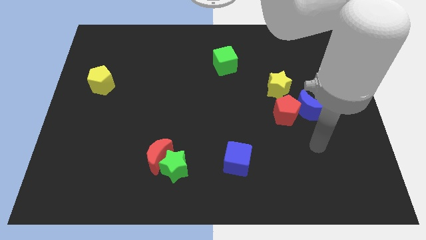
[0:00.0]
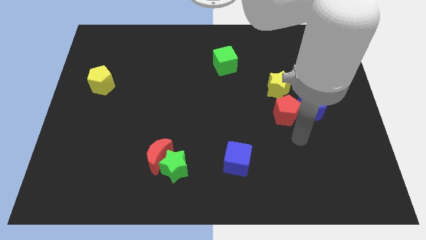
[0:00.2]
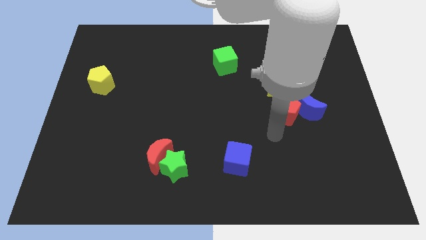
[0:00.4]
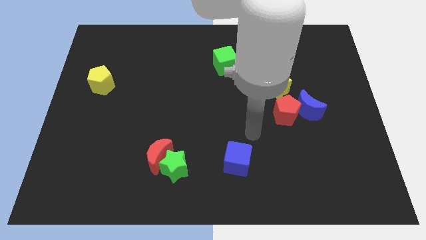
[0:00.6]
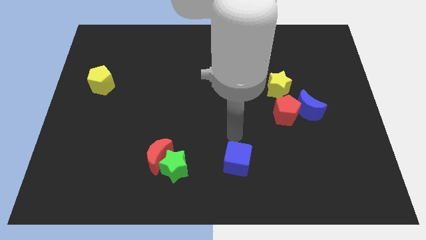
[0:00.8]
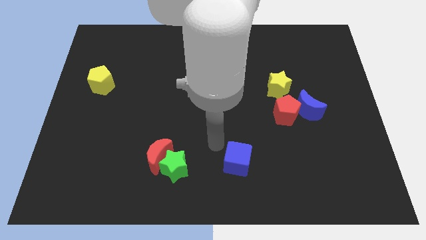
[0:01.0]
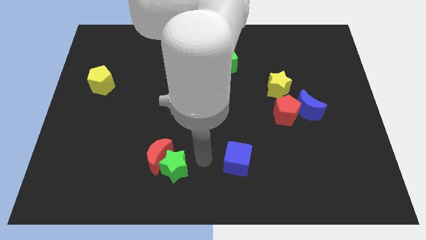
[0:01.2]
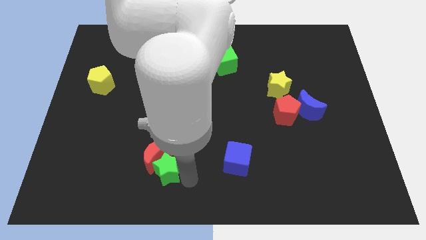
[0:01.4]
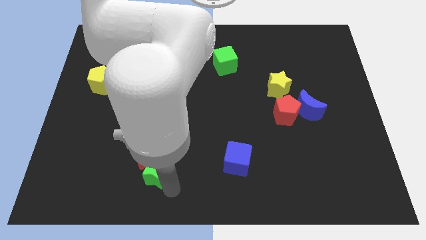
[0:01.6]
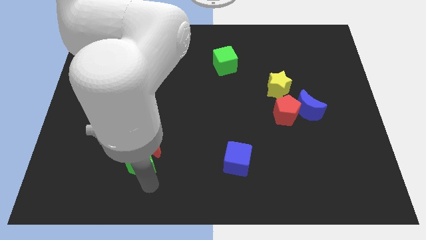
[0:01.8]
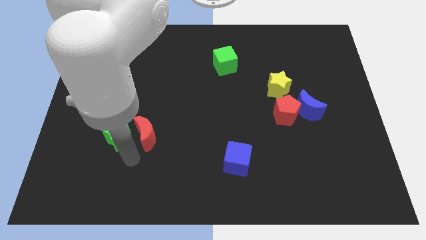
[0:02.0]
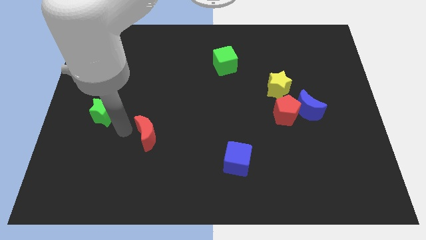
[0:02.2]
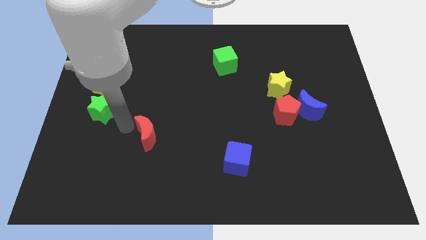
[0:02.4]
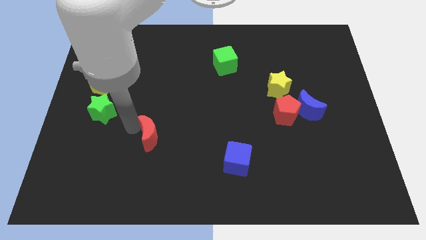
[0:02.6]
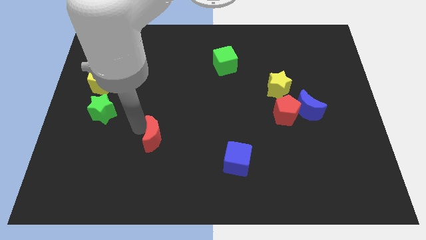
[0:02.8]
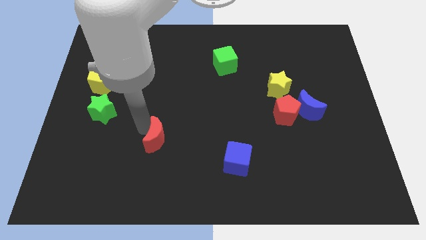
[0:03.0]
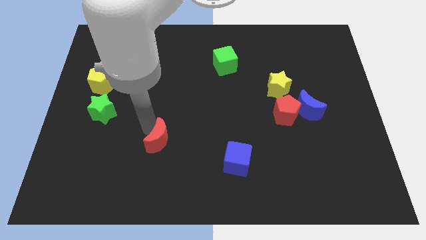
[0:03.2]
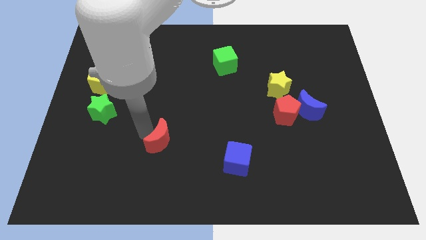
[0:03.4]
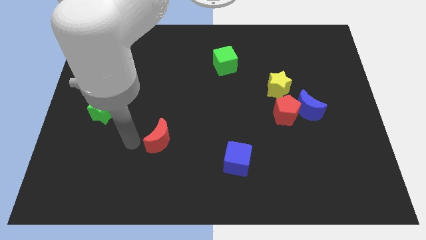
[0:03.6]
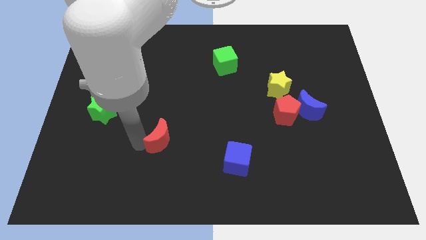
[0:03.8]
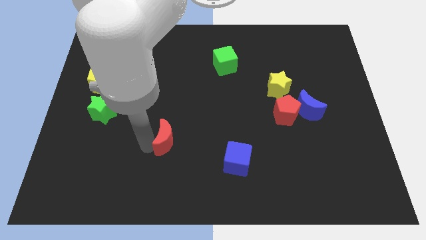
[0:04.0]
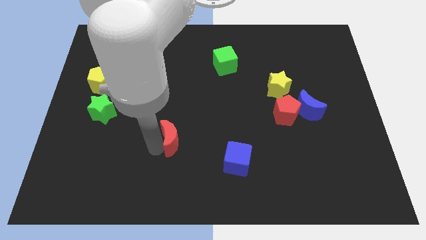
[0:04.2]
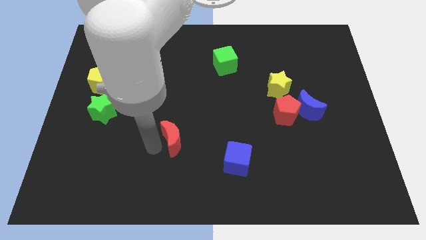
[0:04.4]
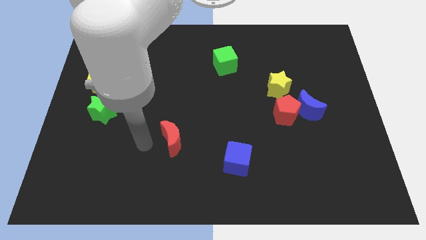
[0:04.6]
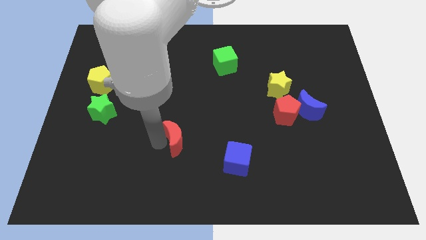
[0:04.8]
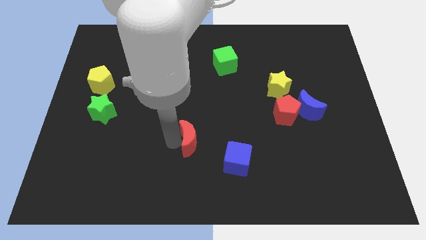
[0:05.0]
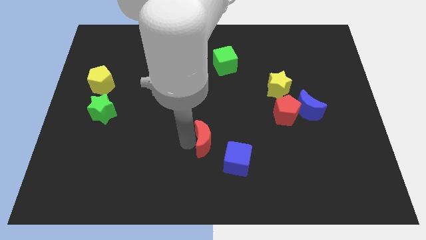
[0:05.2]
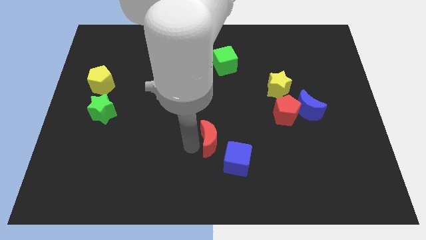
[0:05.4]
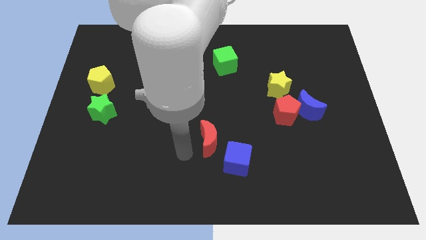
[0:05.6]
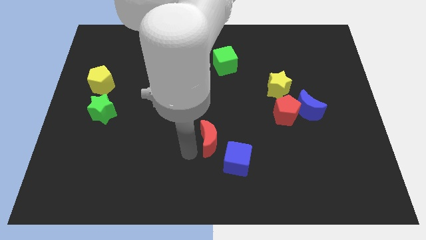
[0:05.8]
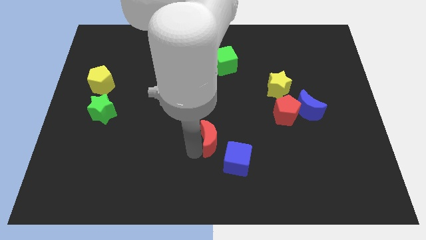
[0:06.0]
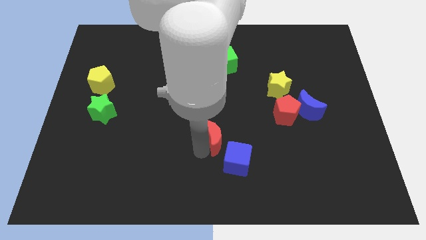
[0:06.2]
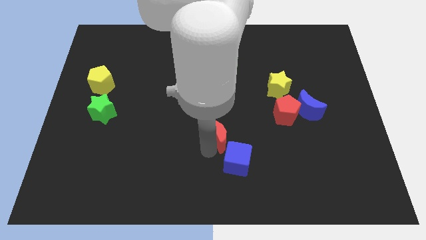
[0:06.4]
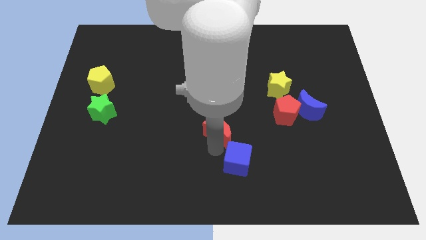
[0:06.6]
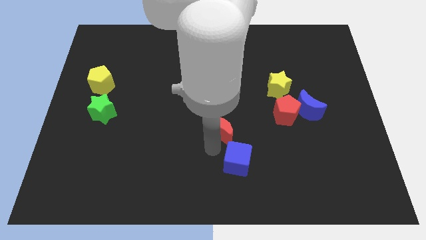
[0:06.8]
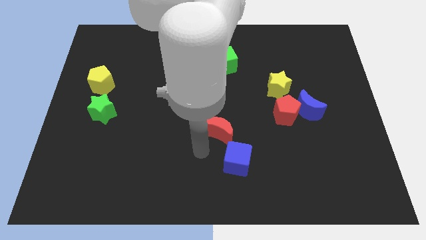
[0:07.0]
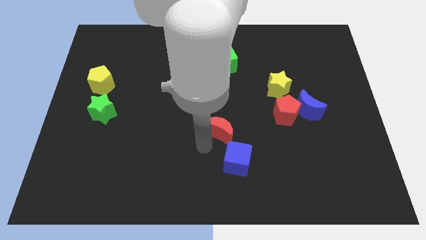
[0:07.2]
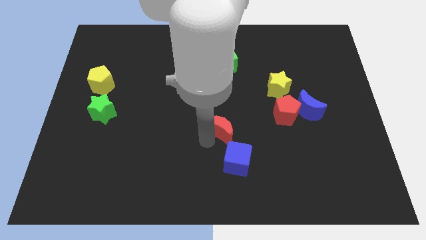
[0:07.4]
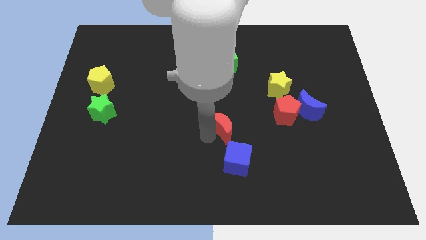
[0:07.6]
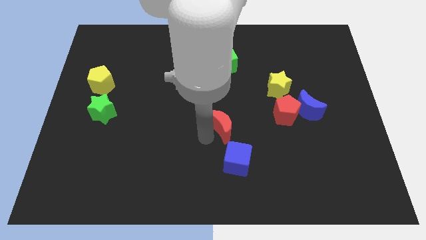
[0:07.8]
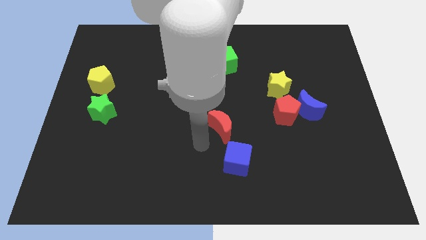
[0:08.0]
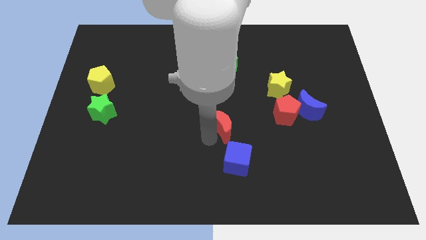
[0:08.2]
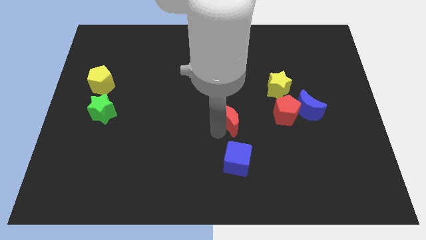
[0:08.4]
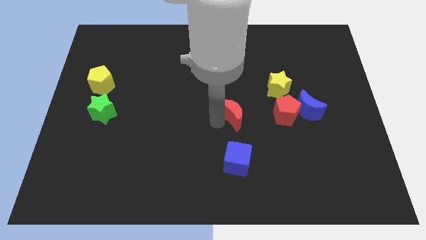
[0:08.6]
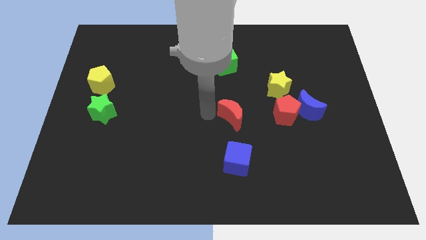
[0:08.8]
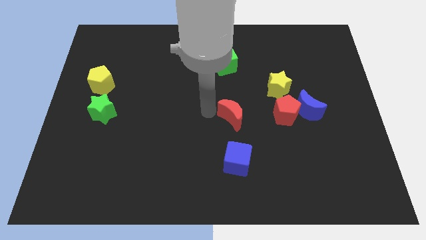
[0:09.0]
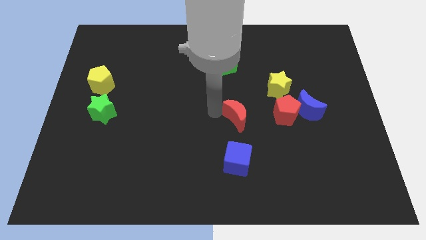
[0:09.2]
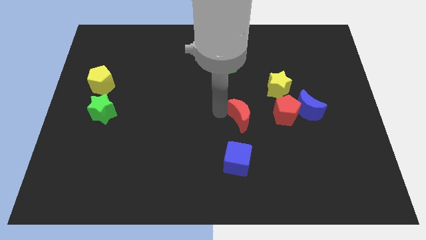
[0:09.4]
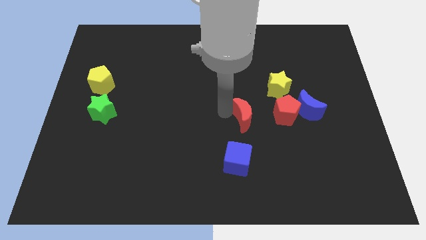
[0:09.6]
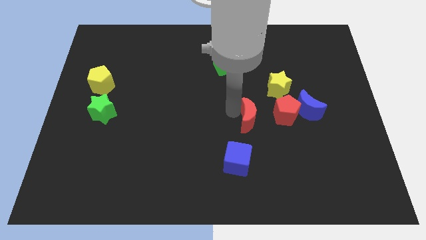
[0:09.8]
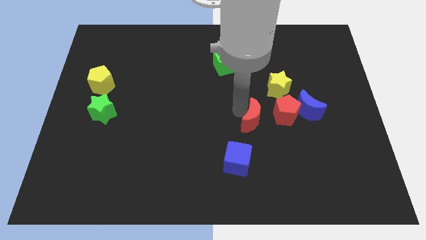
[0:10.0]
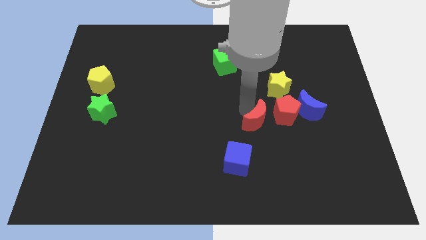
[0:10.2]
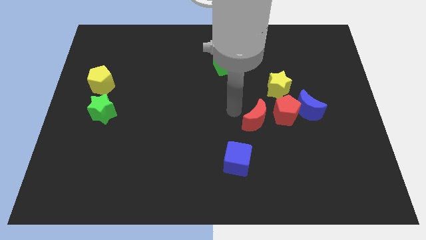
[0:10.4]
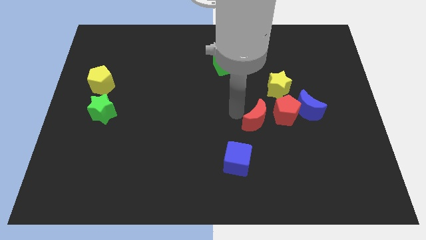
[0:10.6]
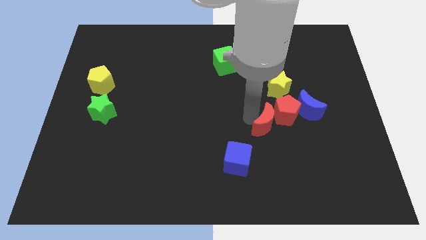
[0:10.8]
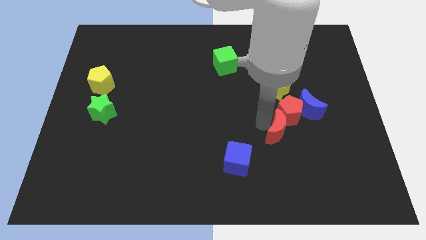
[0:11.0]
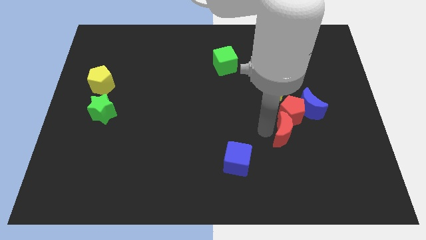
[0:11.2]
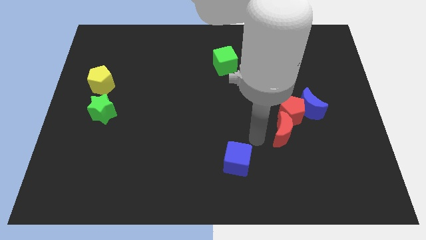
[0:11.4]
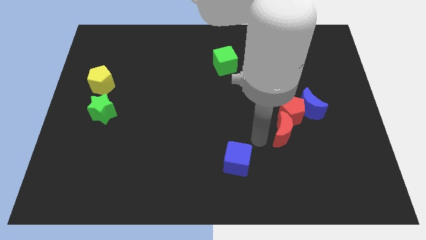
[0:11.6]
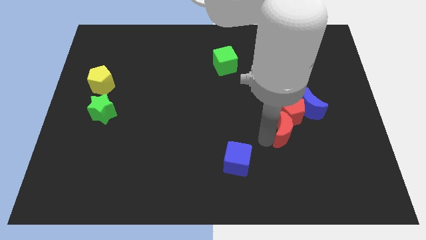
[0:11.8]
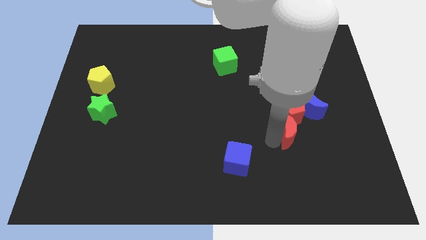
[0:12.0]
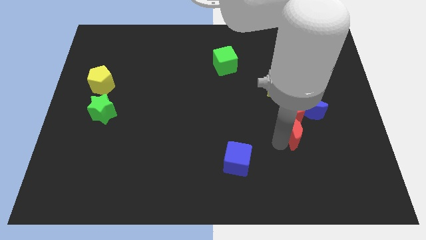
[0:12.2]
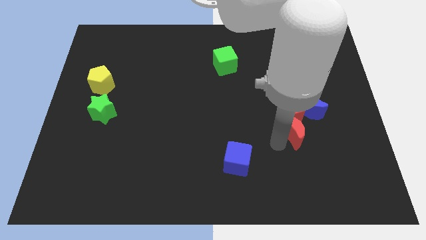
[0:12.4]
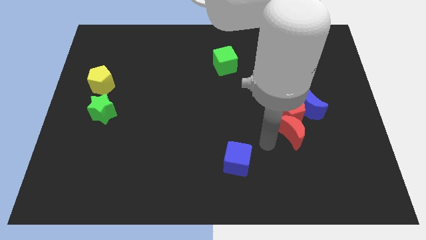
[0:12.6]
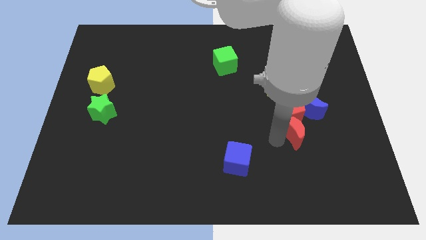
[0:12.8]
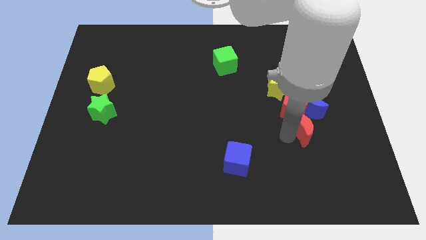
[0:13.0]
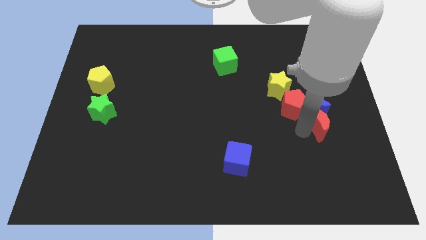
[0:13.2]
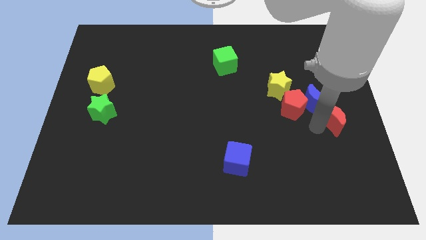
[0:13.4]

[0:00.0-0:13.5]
push the red moon to the right side
